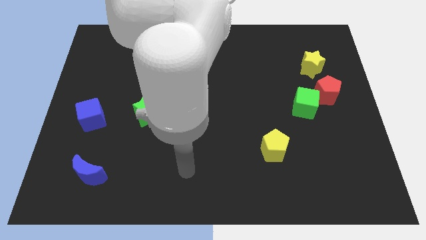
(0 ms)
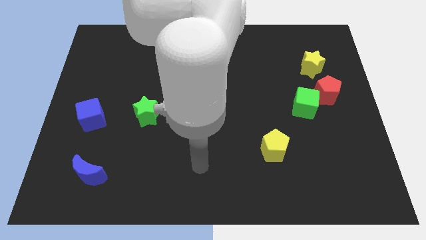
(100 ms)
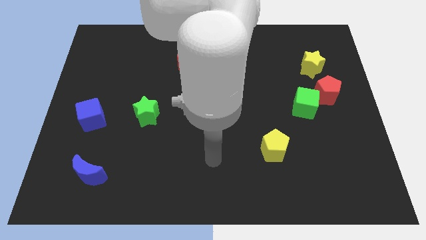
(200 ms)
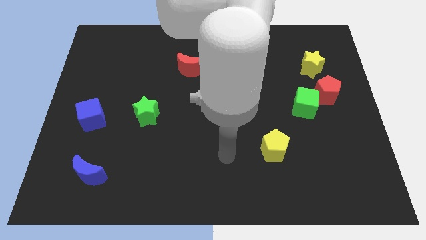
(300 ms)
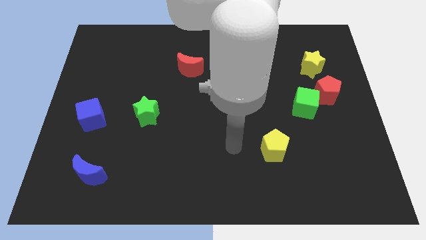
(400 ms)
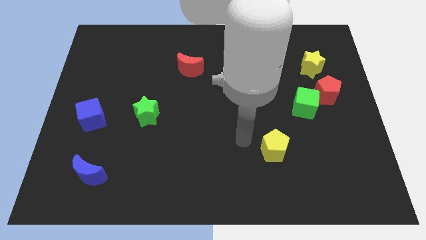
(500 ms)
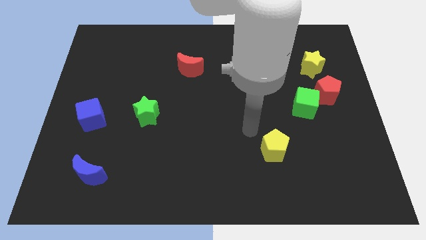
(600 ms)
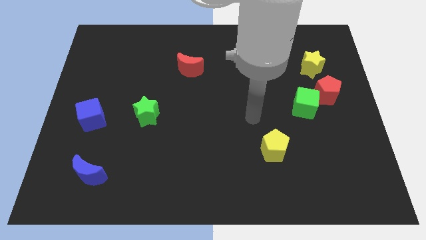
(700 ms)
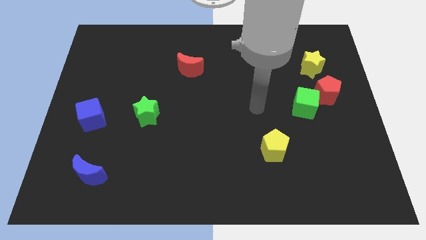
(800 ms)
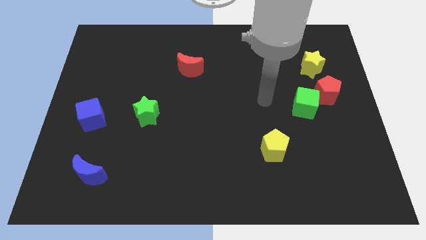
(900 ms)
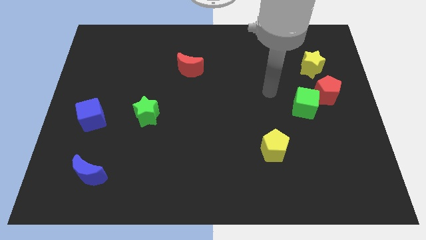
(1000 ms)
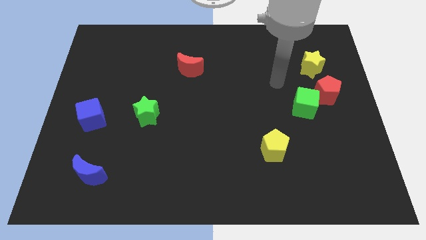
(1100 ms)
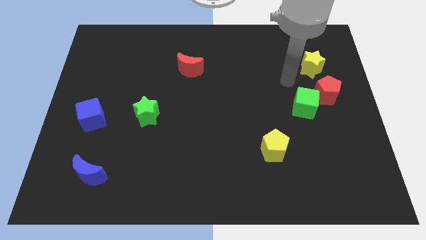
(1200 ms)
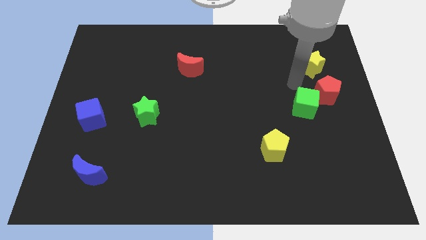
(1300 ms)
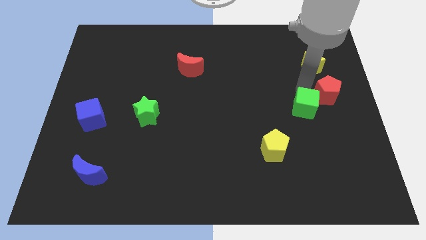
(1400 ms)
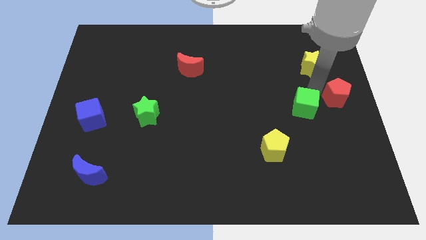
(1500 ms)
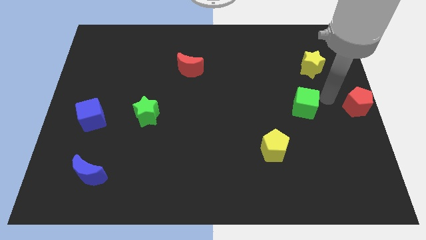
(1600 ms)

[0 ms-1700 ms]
separate the green cube from the red pentagon

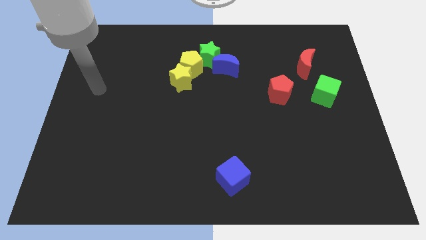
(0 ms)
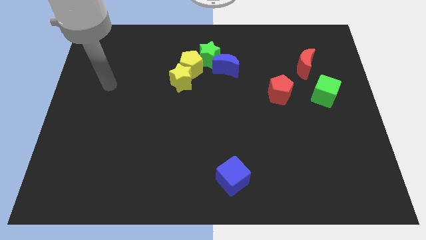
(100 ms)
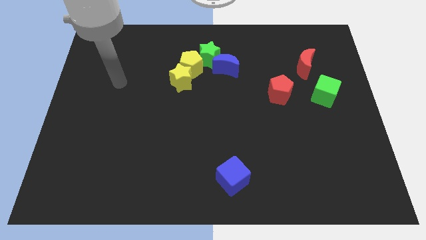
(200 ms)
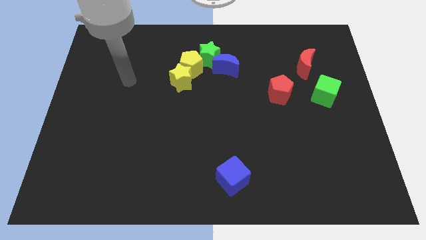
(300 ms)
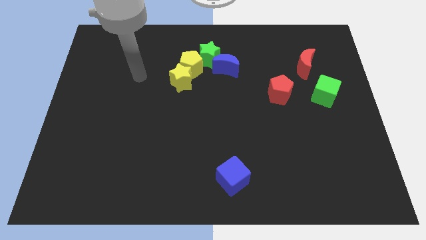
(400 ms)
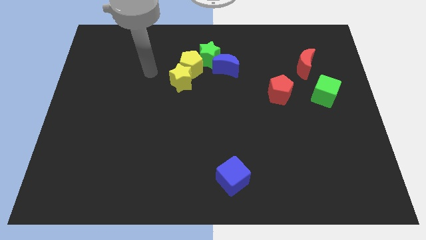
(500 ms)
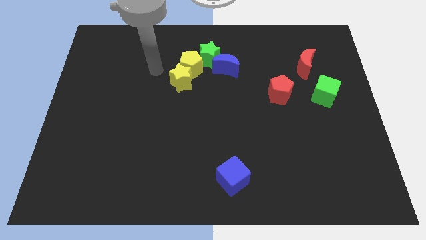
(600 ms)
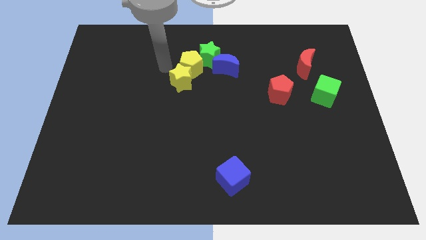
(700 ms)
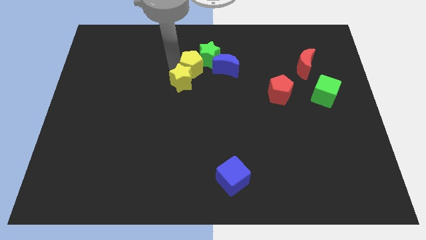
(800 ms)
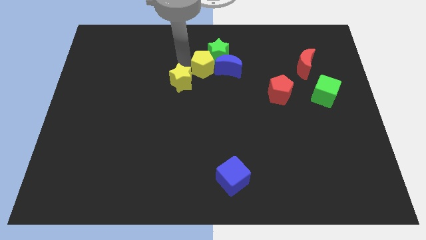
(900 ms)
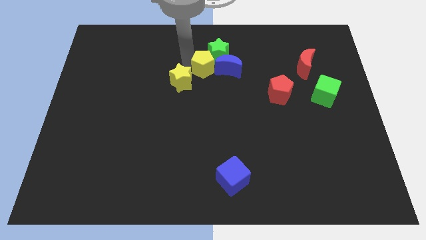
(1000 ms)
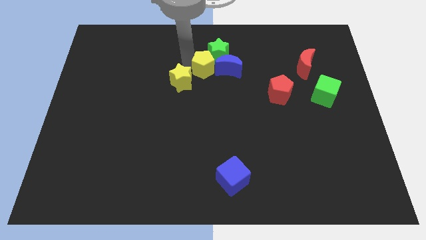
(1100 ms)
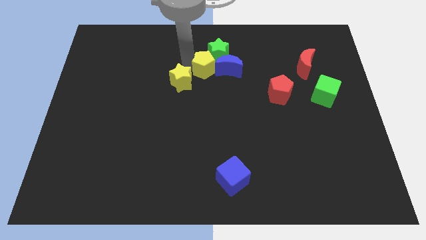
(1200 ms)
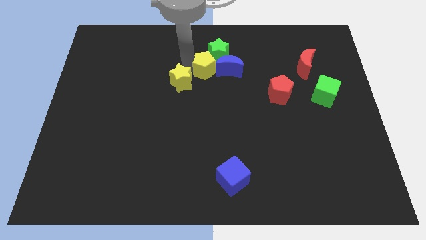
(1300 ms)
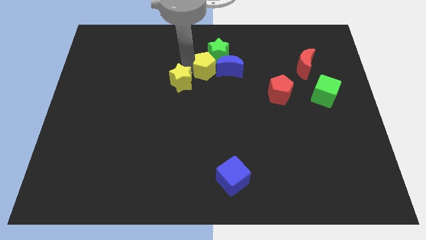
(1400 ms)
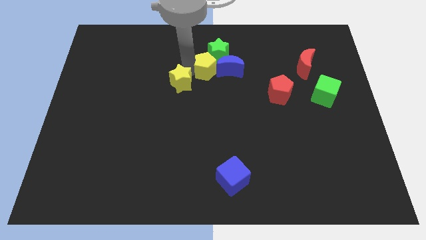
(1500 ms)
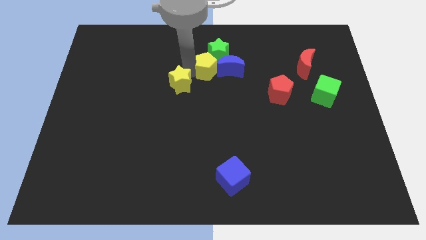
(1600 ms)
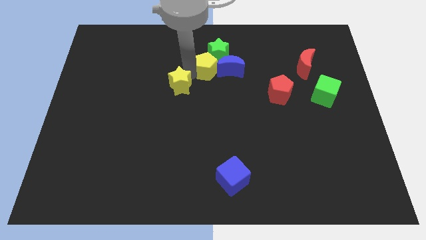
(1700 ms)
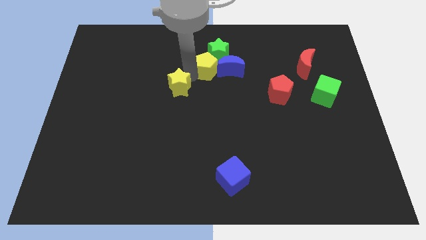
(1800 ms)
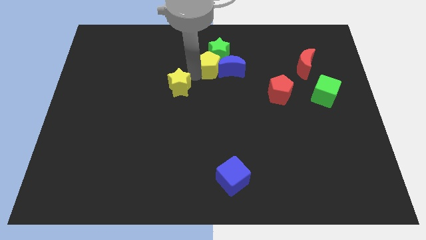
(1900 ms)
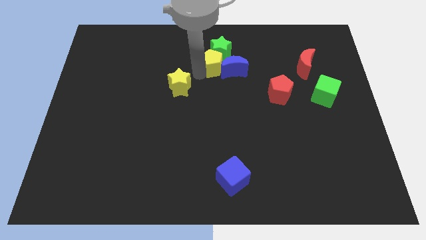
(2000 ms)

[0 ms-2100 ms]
pull the yellow star apart from the yellow pentagon

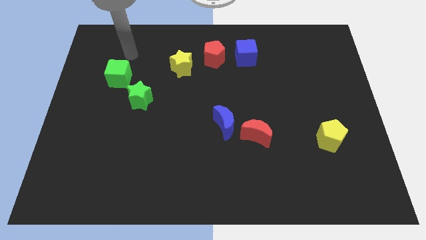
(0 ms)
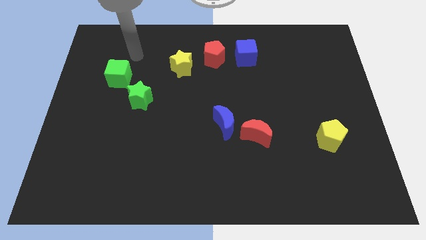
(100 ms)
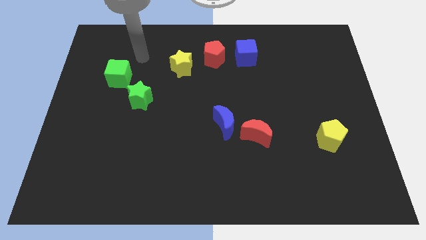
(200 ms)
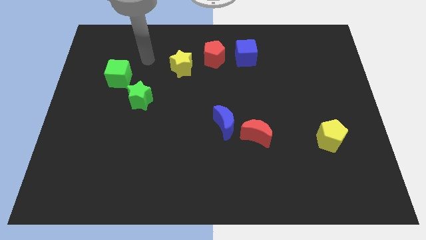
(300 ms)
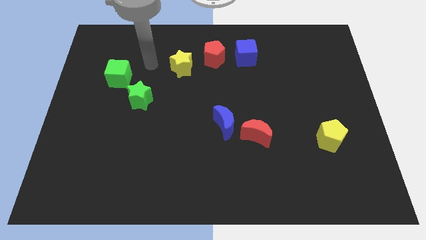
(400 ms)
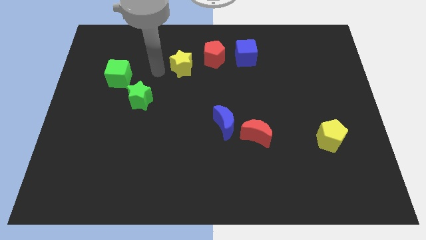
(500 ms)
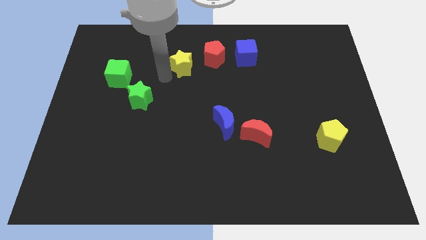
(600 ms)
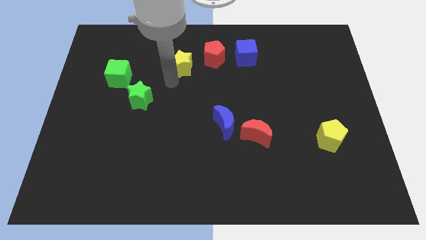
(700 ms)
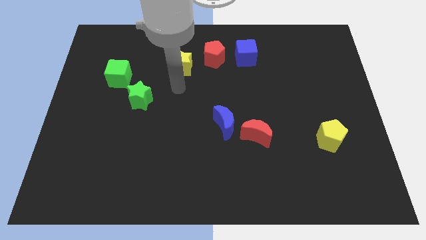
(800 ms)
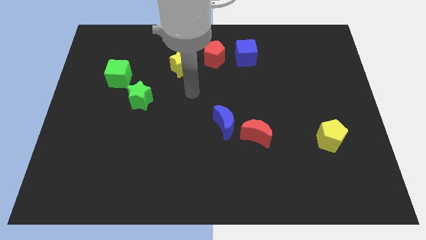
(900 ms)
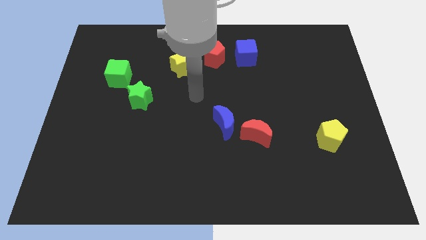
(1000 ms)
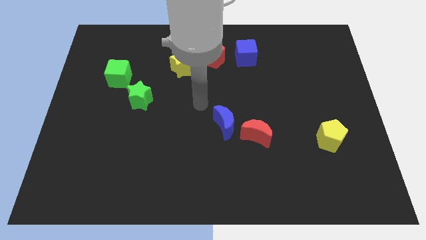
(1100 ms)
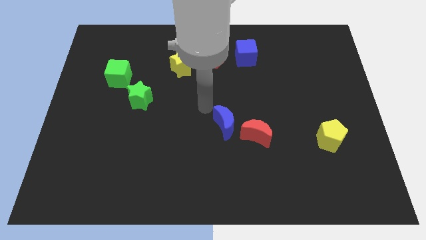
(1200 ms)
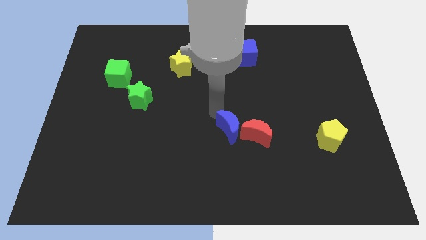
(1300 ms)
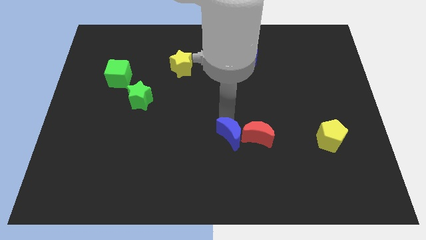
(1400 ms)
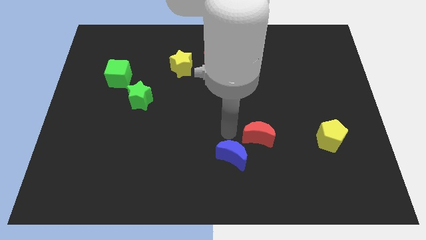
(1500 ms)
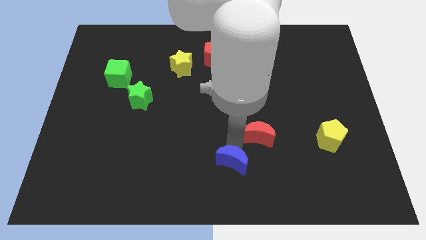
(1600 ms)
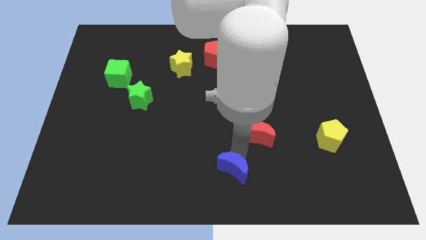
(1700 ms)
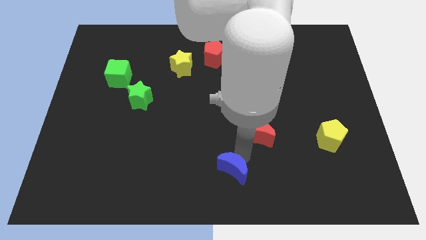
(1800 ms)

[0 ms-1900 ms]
separate the red moon from the blue moon

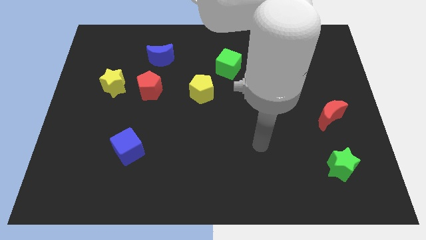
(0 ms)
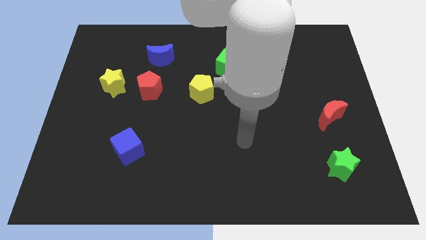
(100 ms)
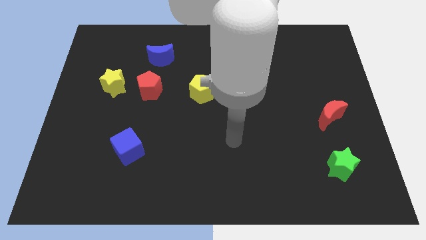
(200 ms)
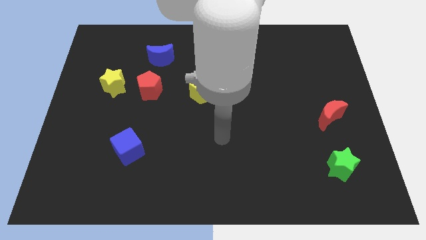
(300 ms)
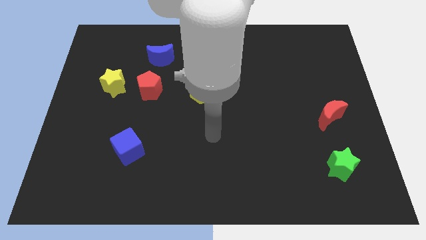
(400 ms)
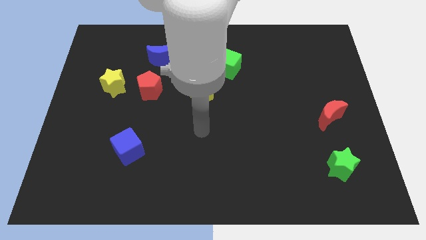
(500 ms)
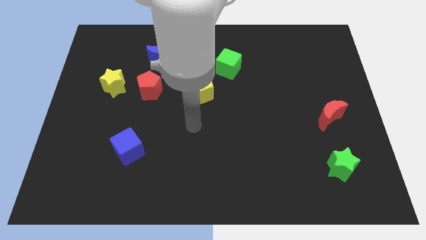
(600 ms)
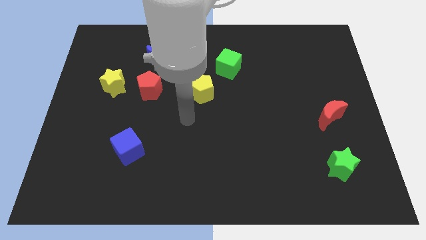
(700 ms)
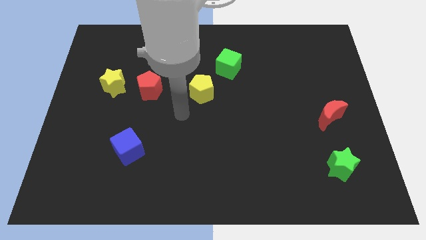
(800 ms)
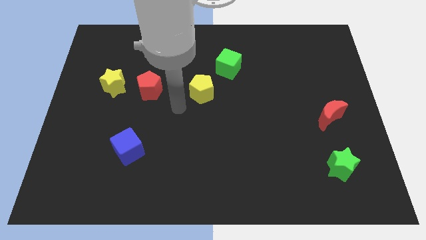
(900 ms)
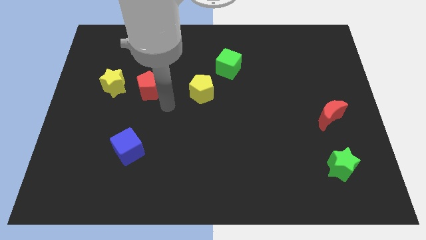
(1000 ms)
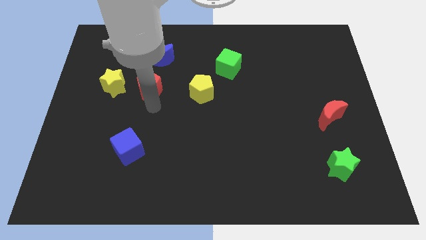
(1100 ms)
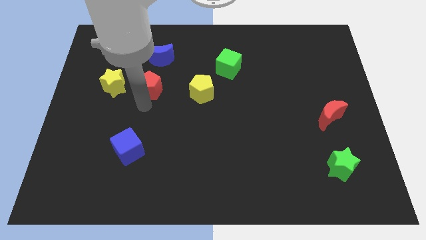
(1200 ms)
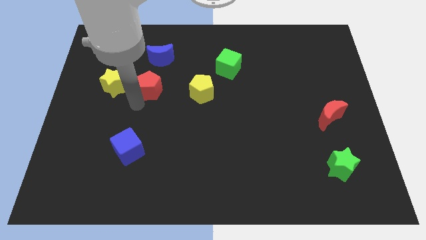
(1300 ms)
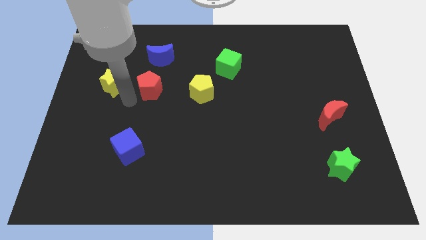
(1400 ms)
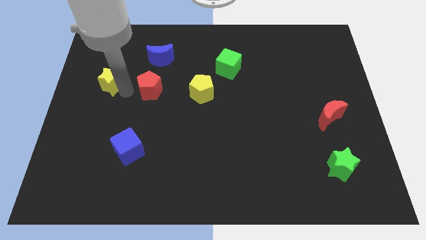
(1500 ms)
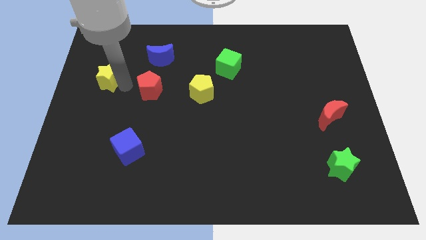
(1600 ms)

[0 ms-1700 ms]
pull the red pentagon apart from the yellow star

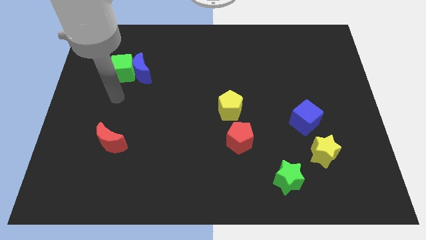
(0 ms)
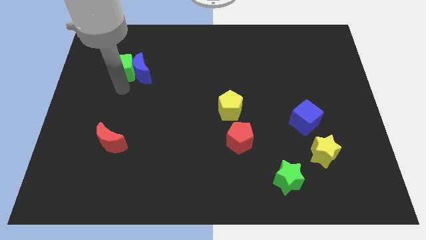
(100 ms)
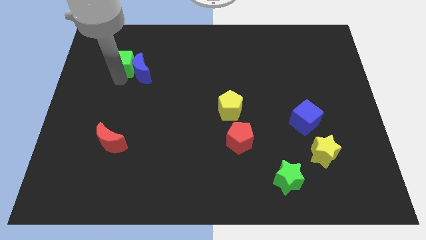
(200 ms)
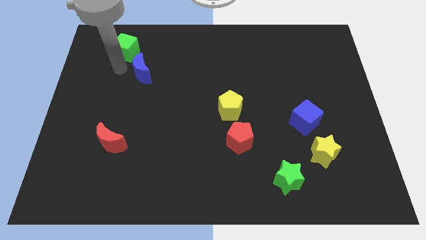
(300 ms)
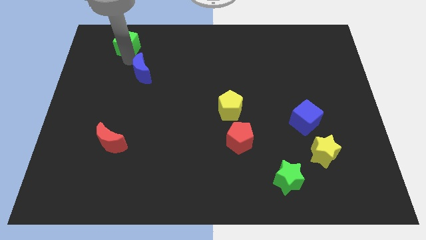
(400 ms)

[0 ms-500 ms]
move the blue moon away from the green cube

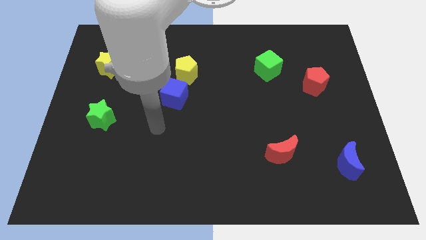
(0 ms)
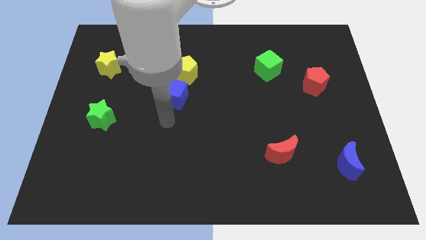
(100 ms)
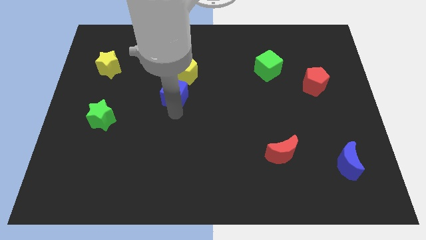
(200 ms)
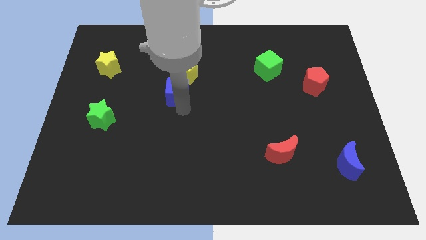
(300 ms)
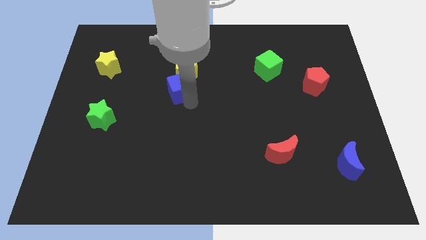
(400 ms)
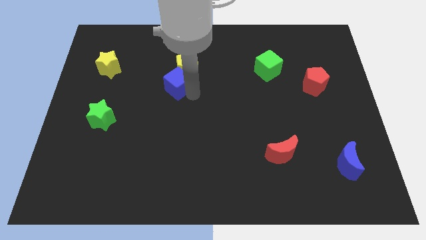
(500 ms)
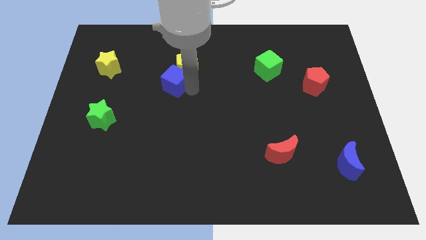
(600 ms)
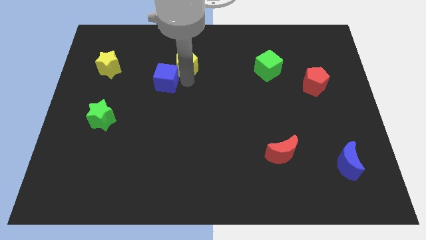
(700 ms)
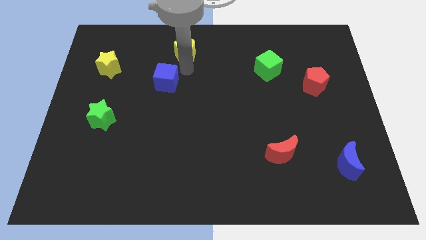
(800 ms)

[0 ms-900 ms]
move the blue cube away from the yellow pentagon

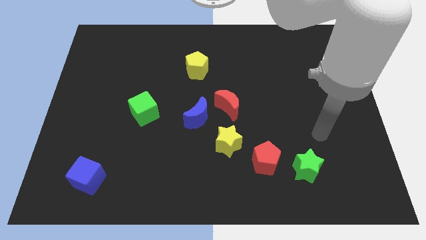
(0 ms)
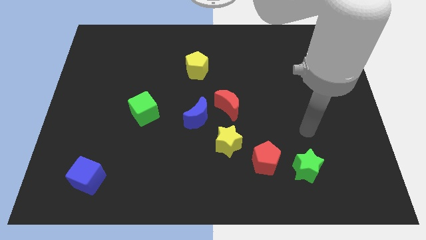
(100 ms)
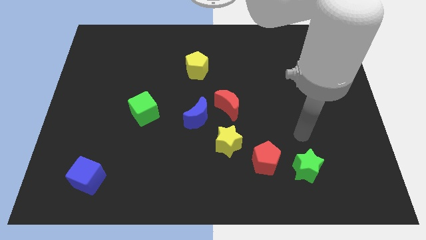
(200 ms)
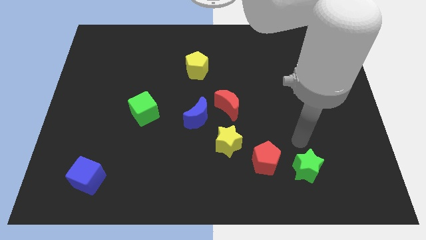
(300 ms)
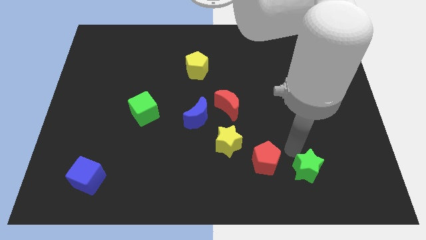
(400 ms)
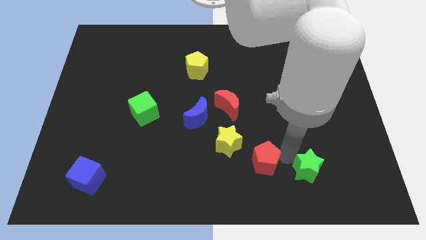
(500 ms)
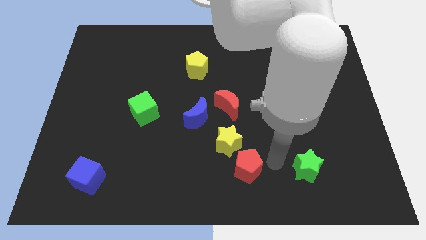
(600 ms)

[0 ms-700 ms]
move the green star away from the red pentagon

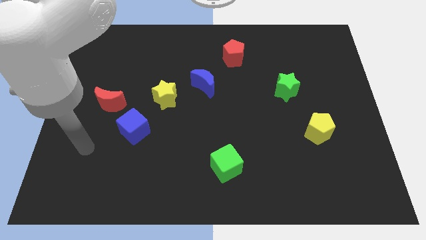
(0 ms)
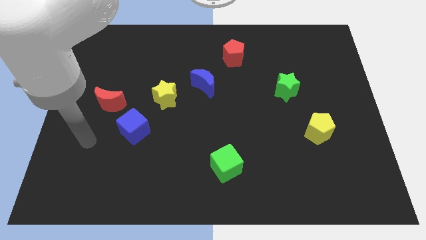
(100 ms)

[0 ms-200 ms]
pull the red moon apart from the blue cube
